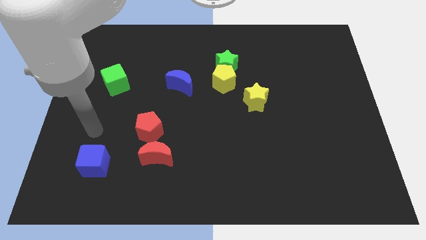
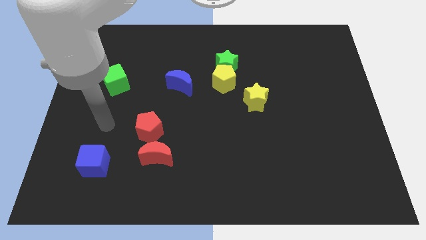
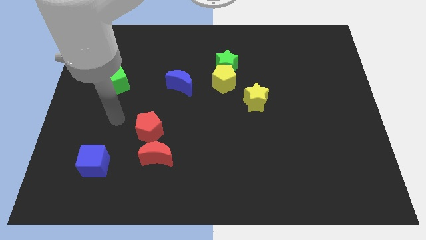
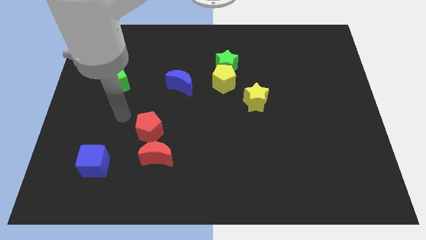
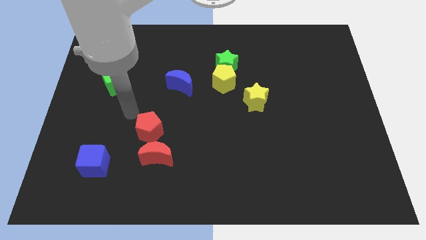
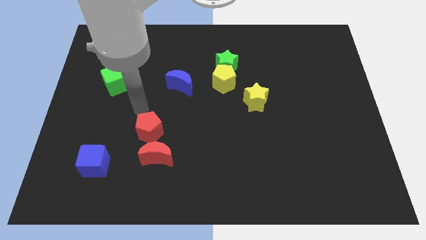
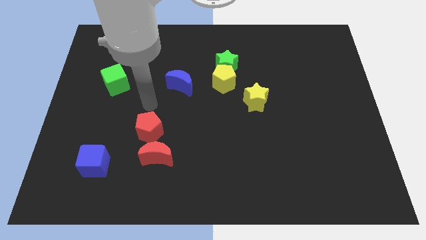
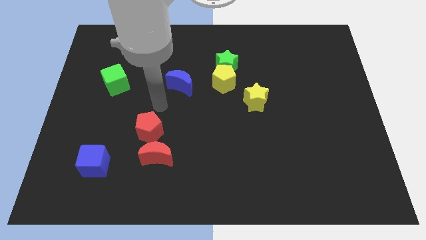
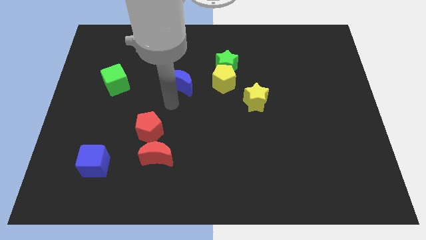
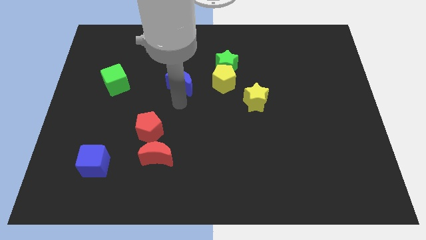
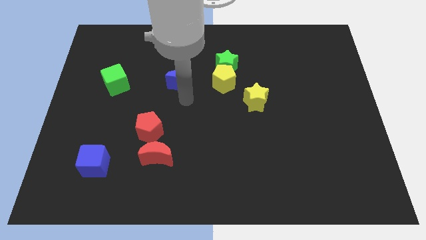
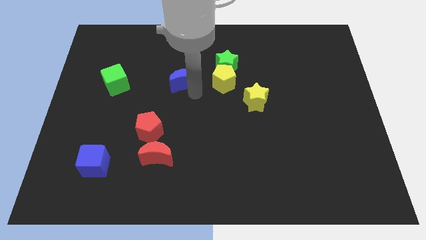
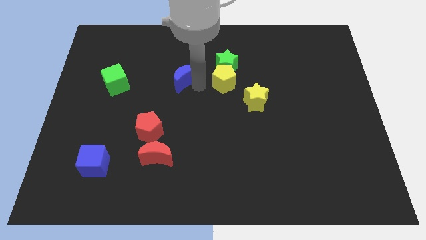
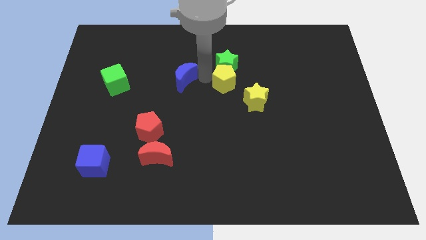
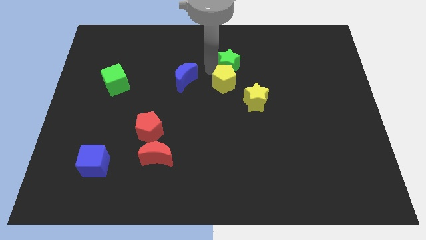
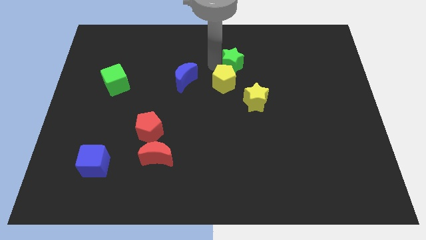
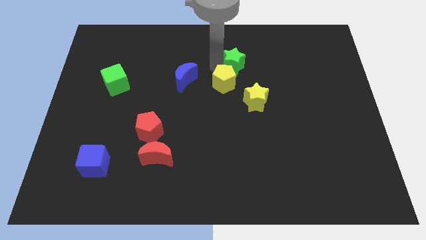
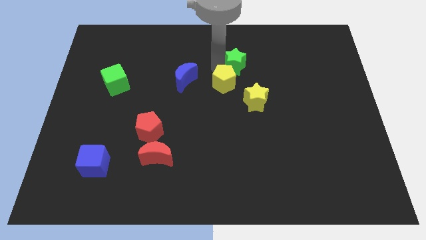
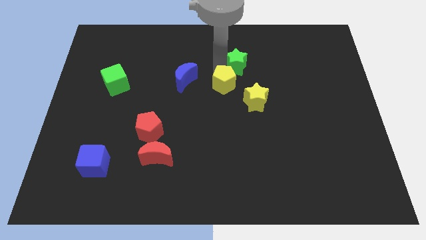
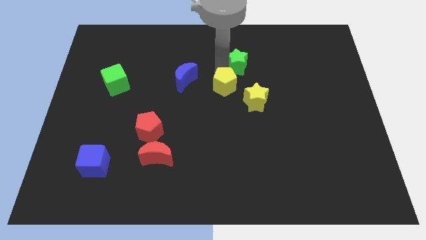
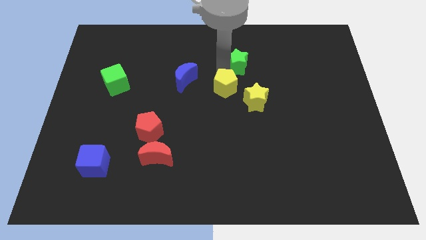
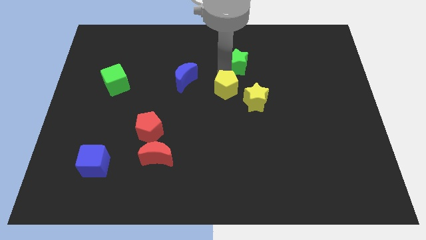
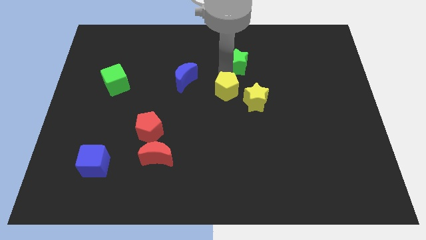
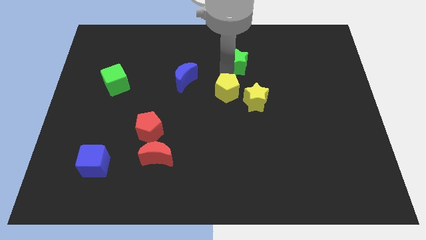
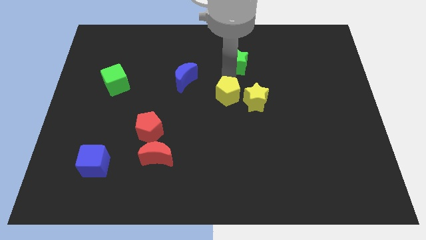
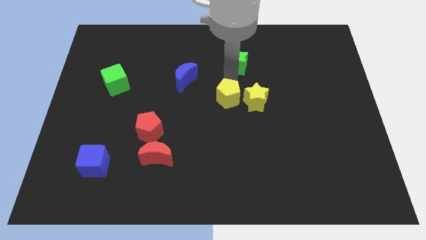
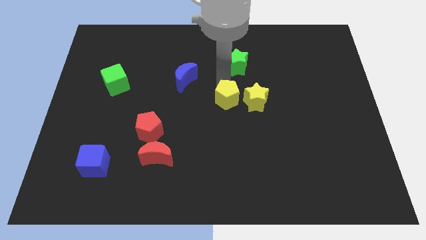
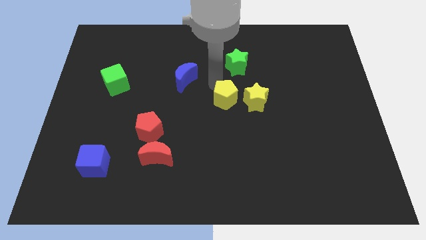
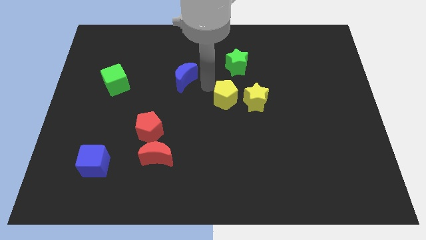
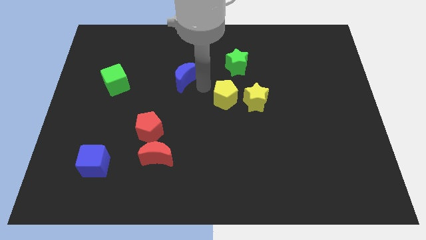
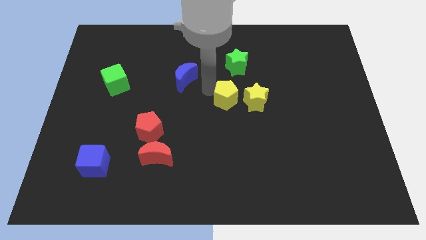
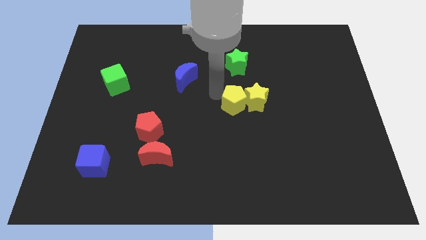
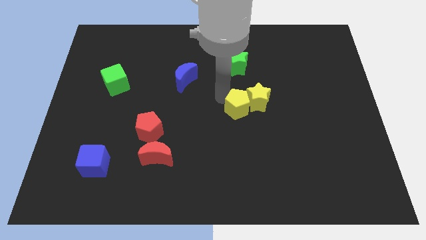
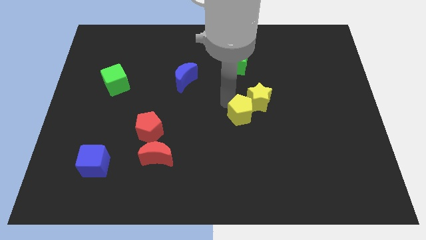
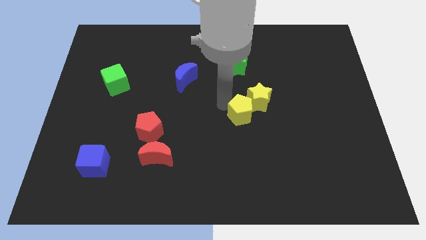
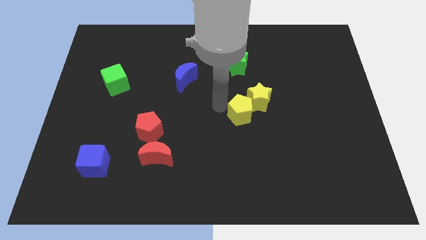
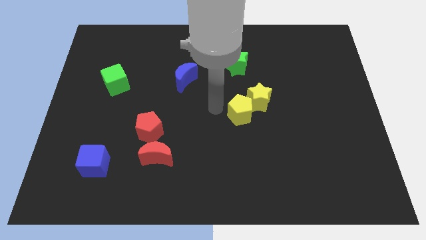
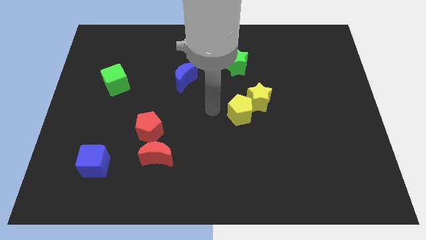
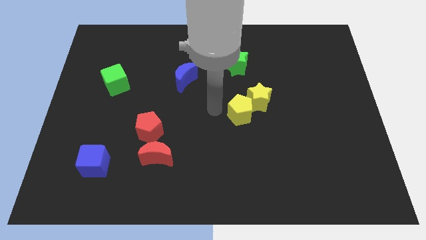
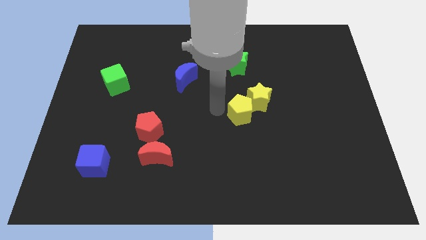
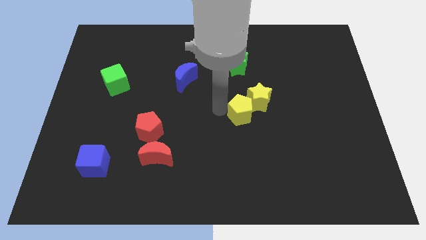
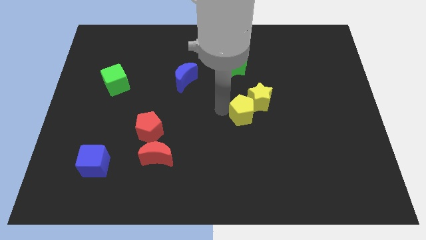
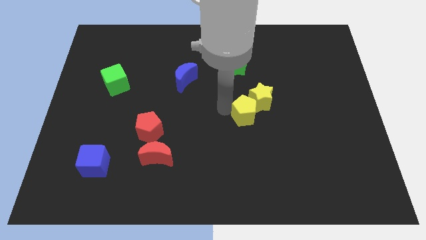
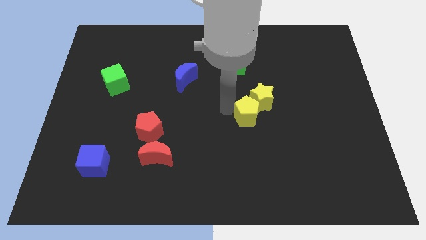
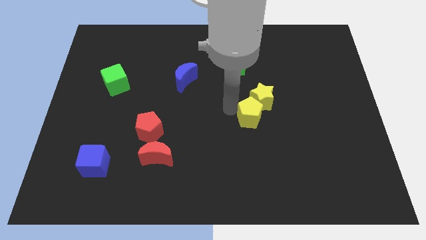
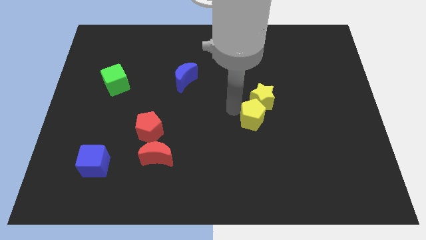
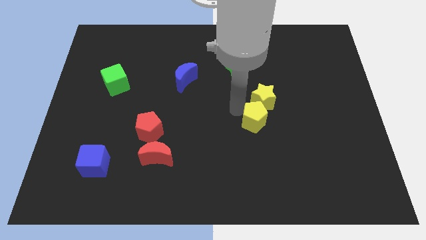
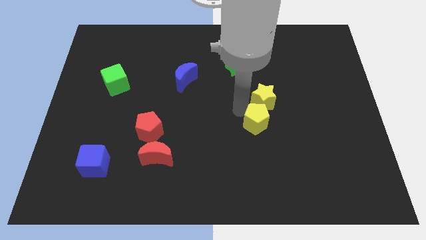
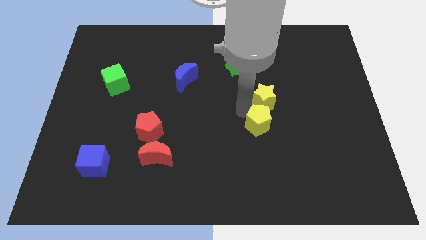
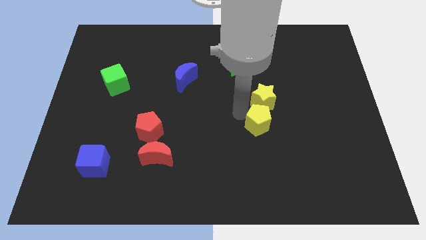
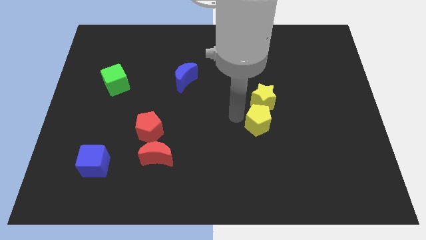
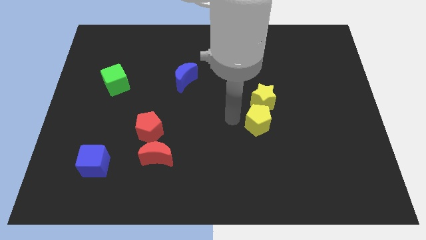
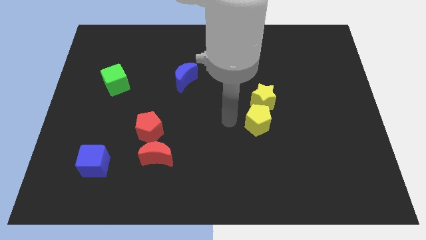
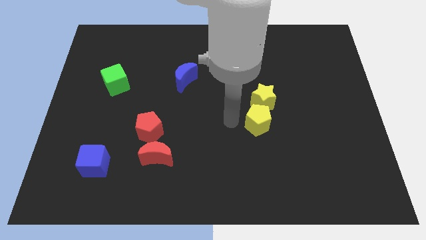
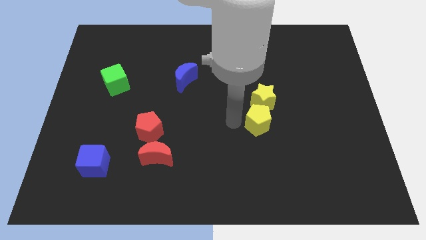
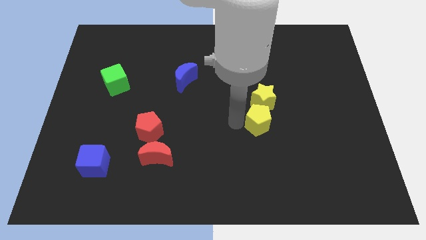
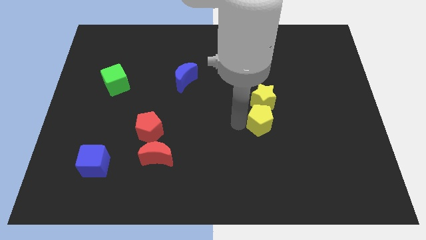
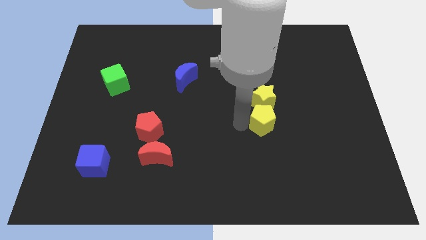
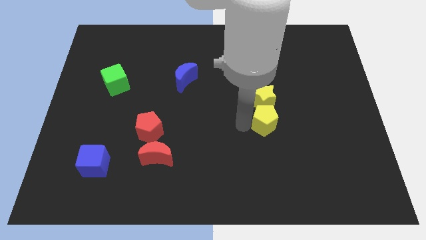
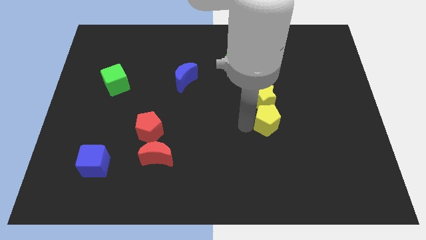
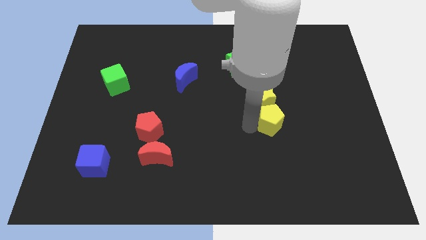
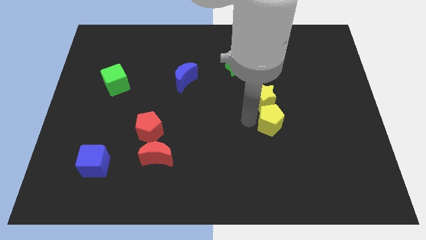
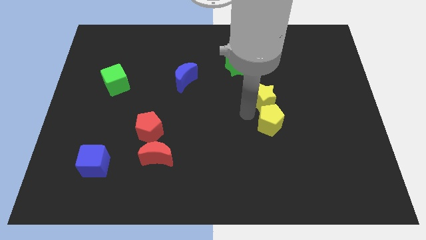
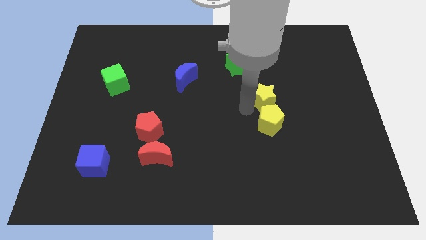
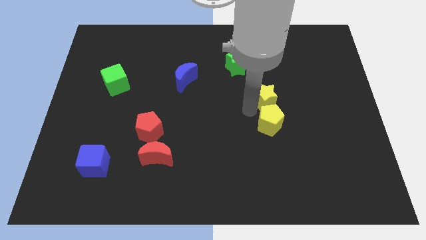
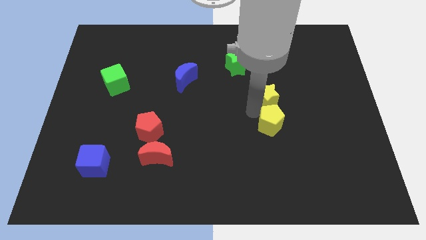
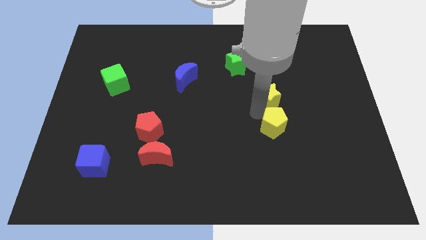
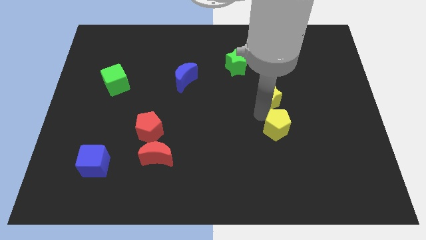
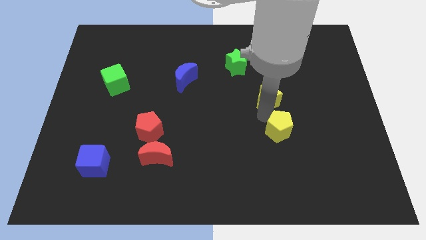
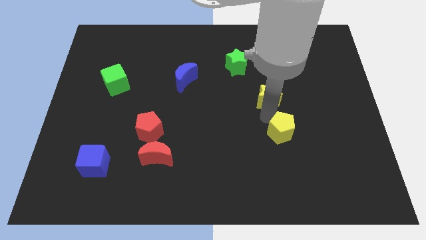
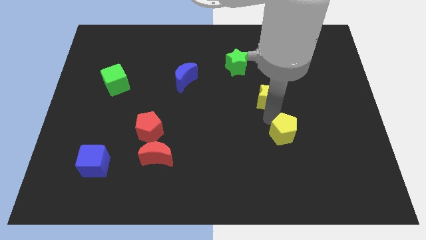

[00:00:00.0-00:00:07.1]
push the yellow pentagon down and right

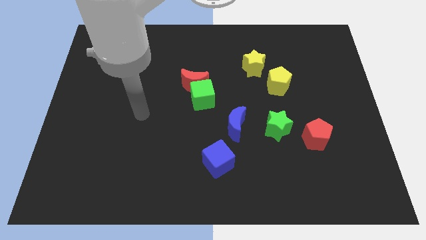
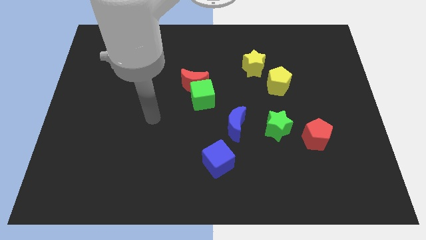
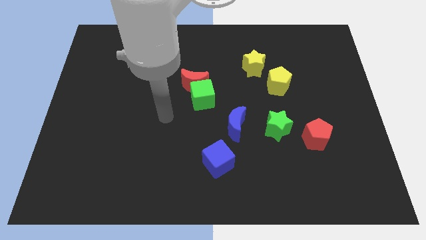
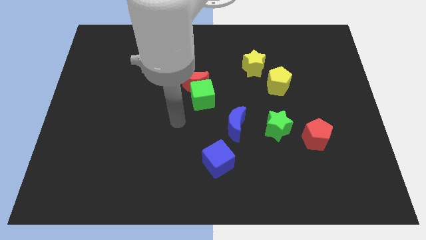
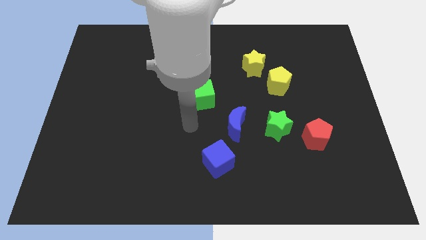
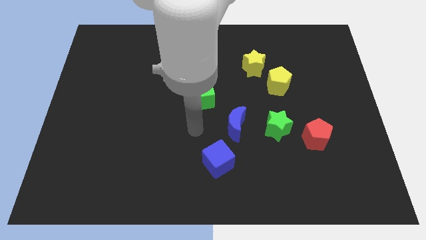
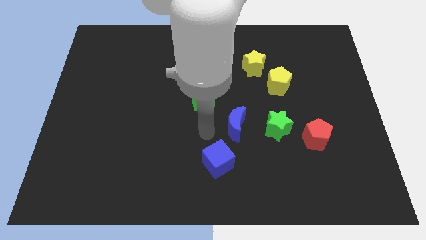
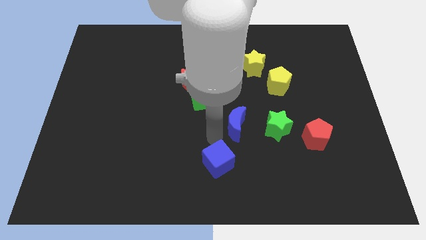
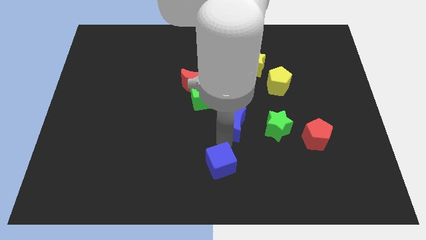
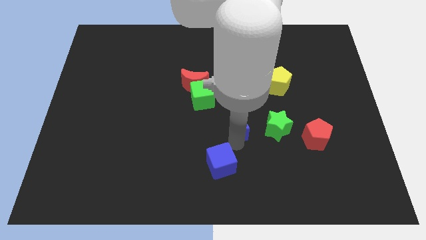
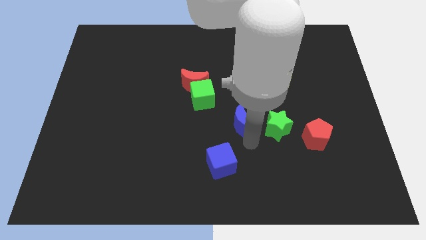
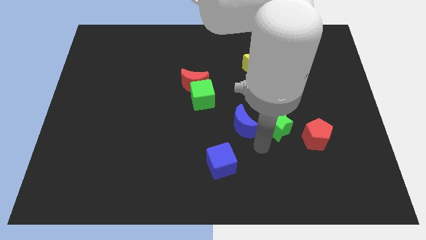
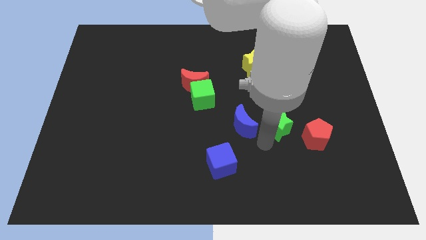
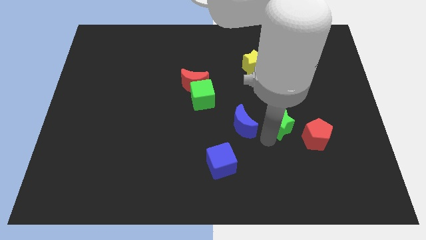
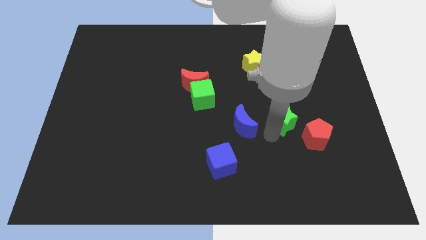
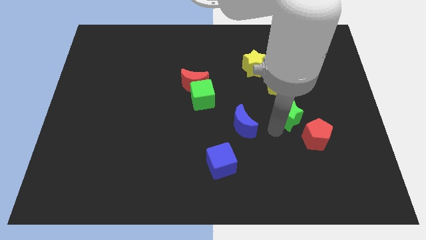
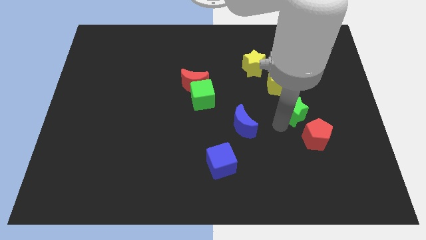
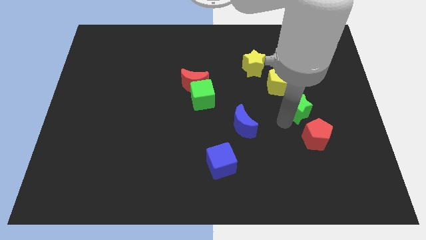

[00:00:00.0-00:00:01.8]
slightly slide the green star up and right
